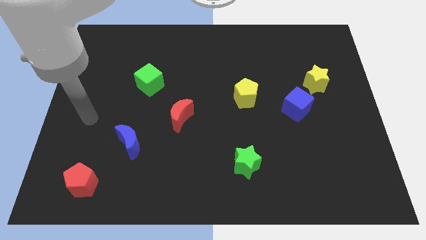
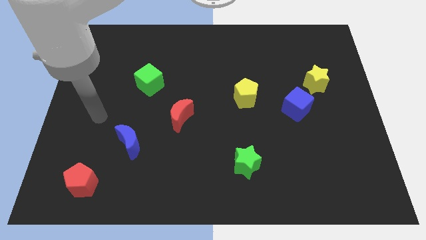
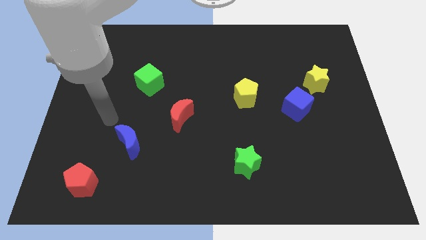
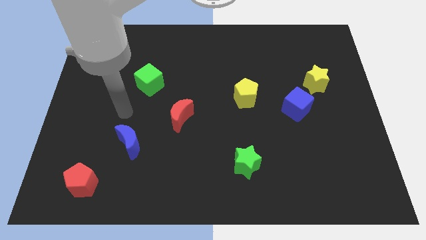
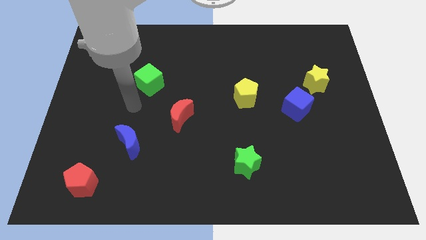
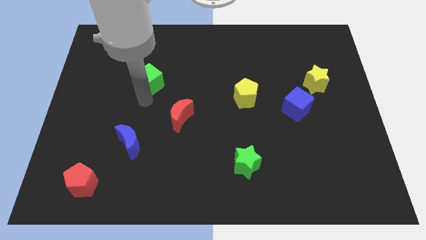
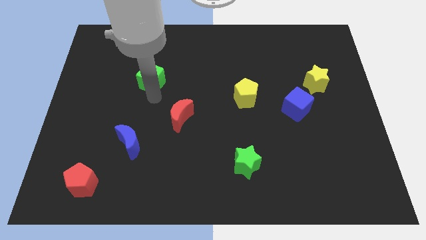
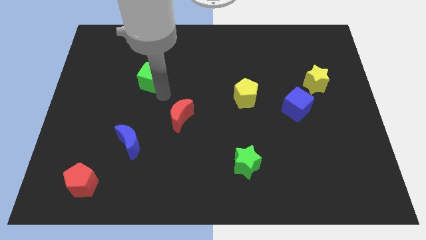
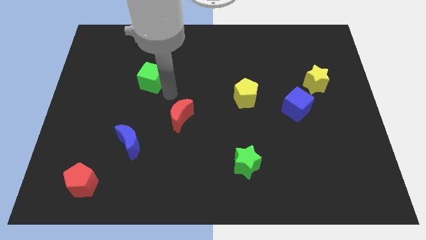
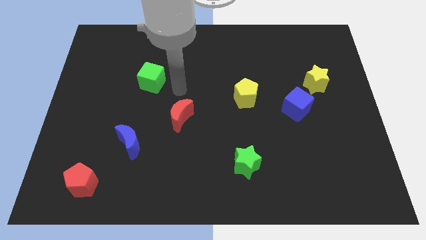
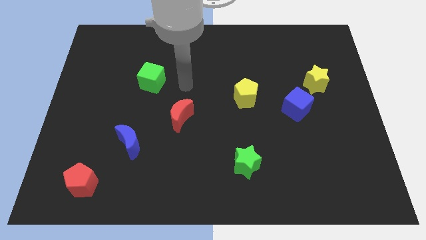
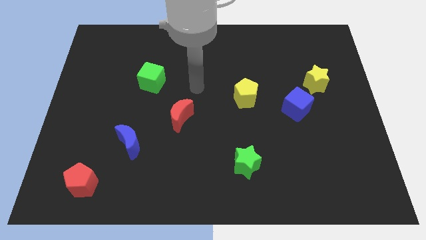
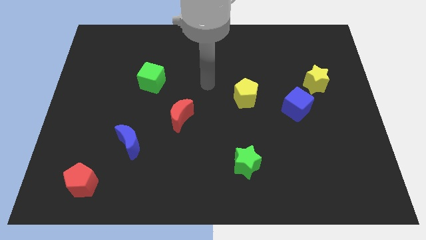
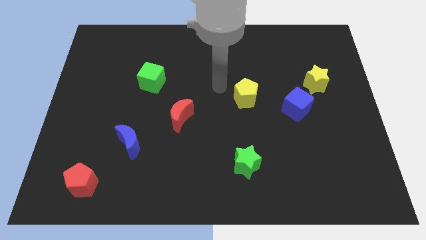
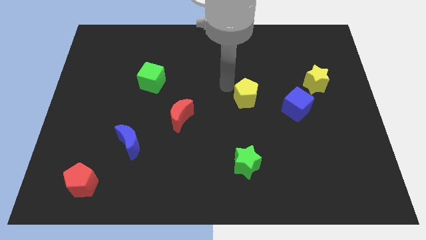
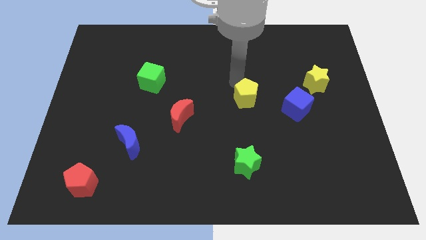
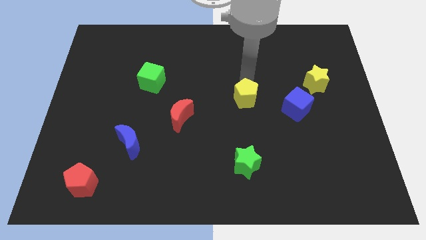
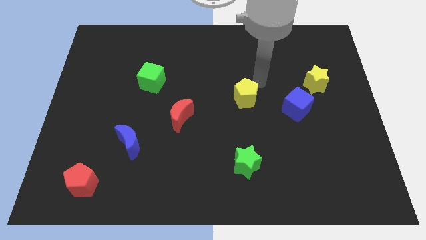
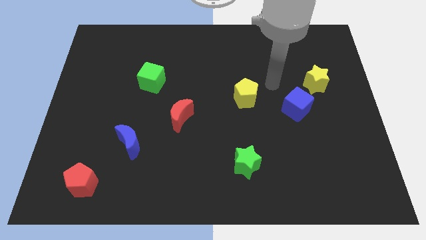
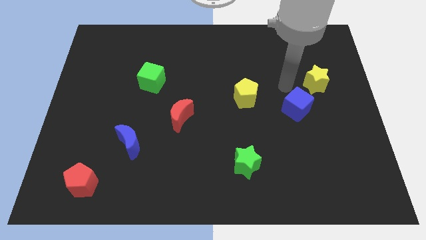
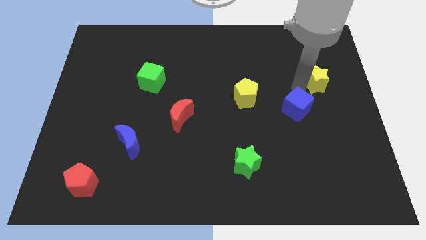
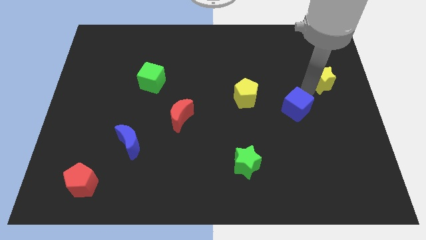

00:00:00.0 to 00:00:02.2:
separate the blue cube from the yellow star

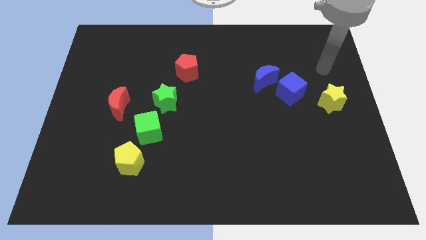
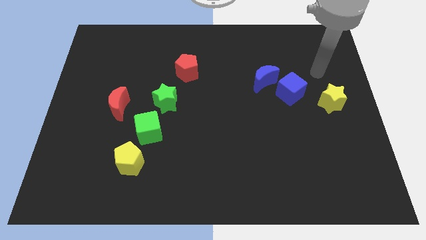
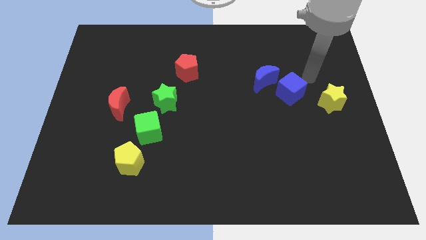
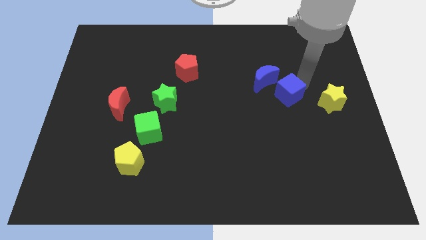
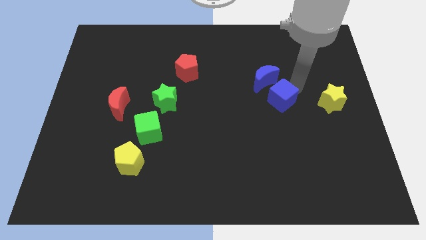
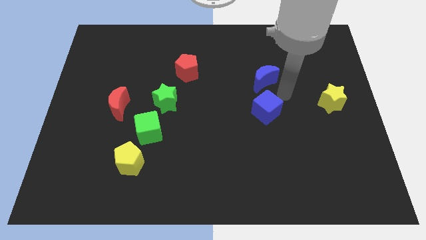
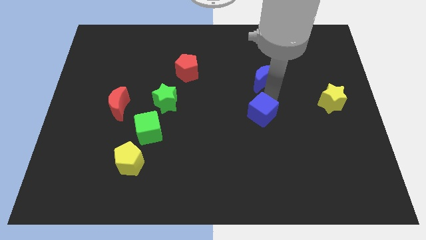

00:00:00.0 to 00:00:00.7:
move the blue moon away from the blue cube

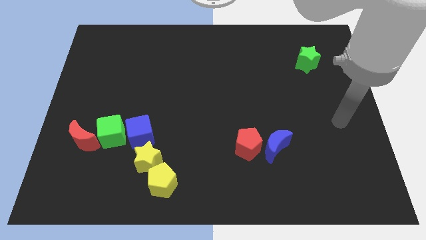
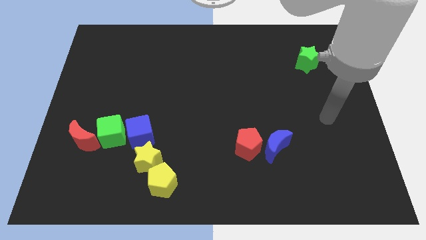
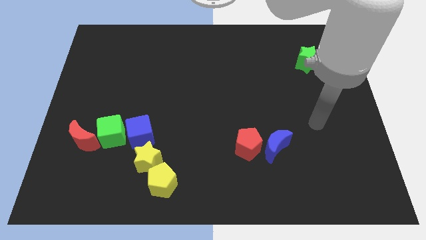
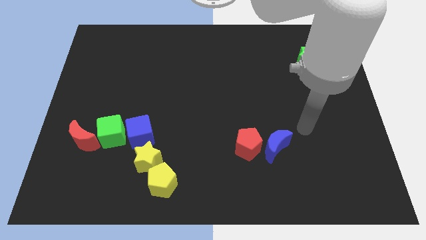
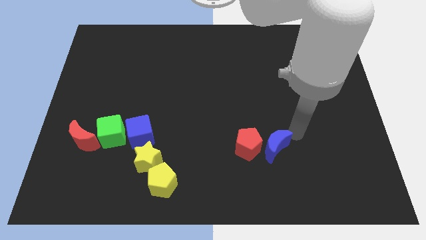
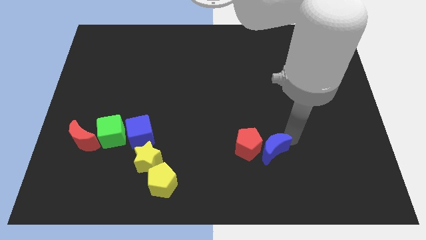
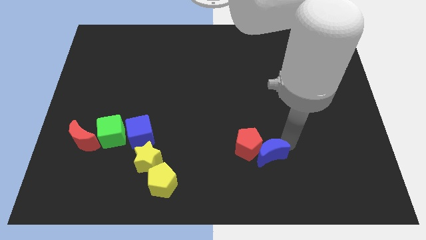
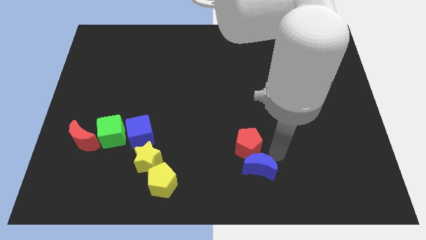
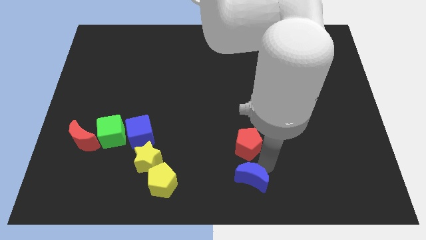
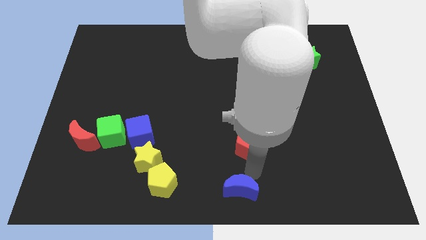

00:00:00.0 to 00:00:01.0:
move the red pentagon away from the blue moon

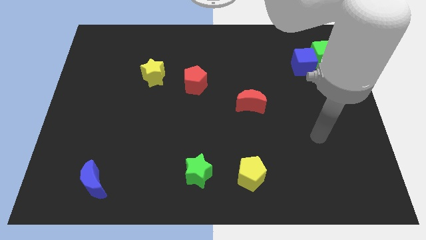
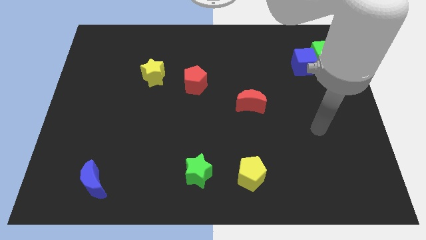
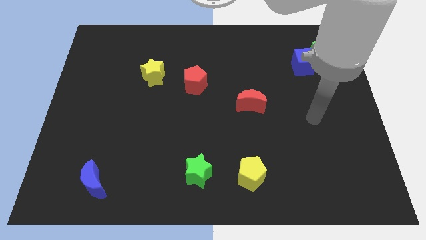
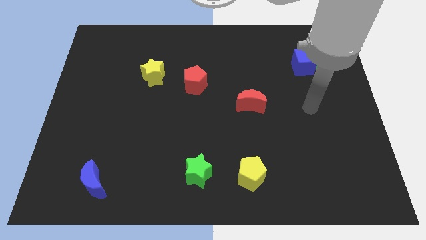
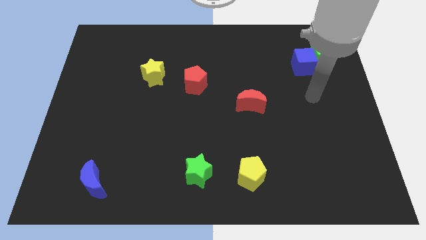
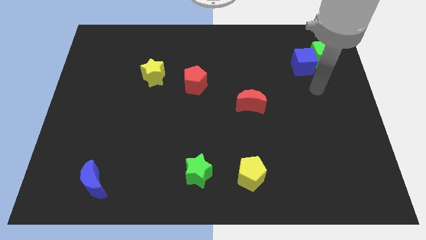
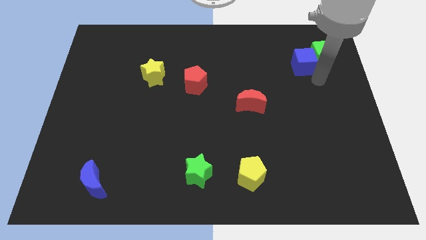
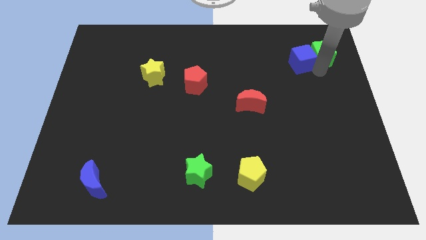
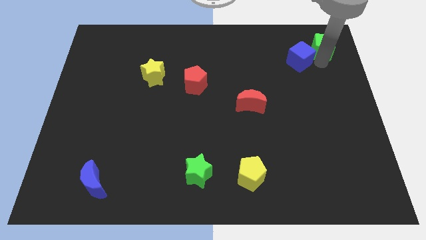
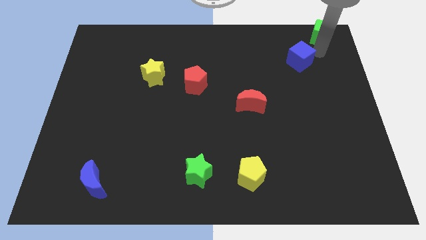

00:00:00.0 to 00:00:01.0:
pull the blue cube apart from the green cube

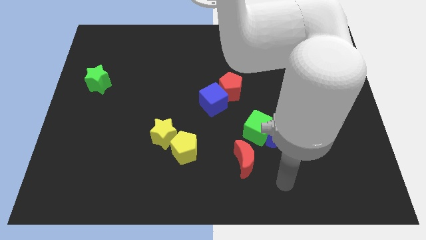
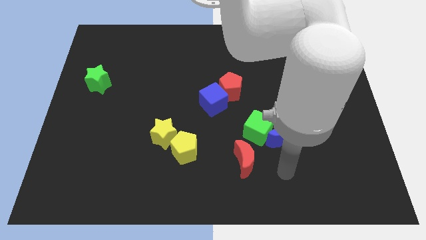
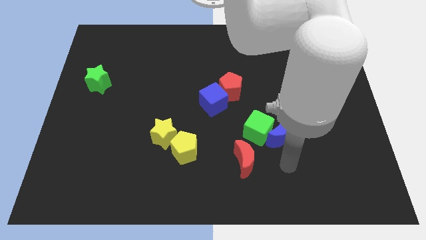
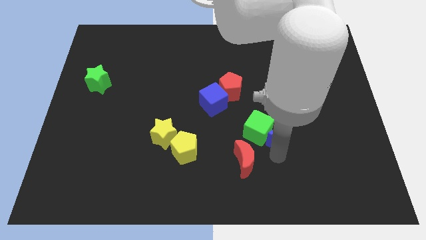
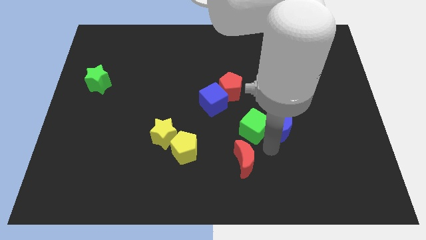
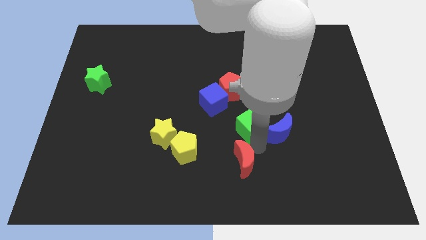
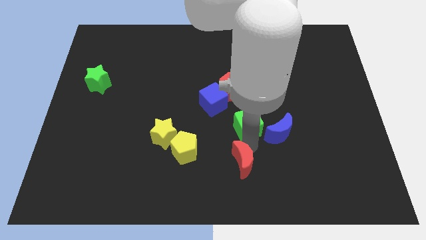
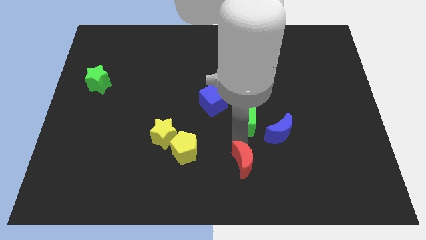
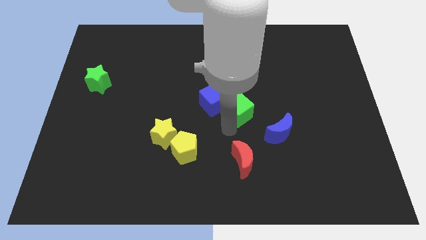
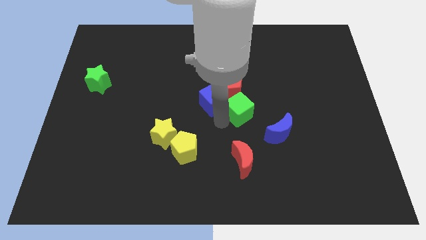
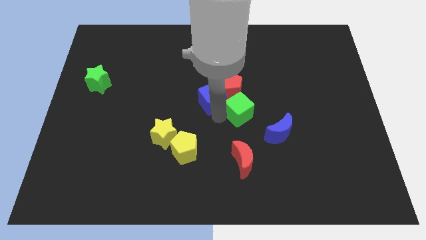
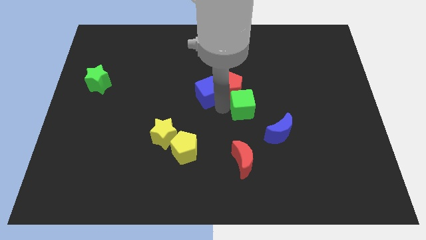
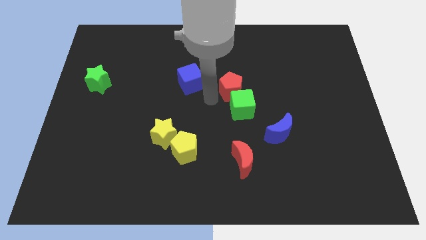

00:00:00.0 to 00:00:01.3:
separate the red pentagon from the blue cube

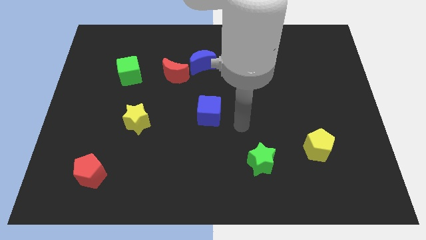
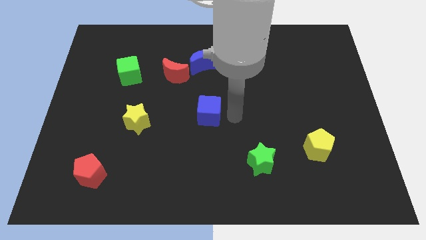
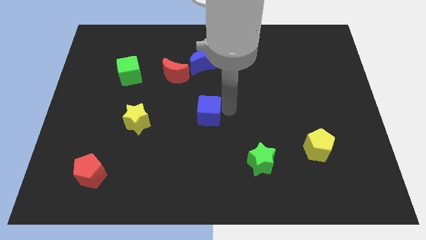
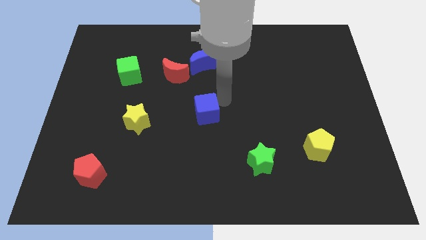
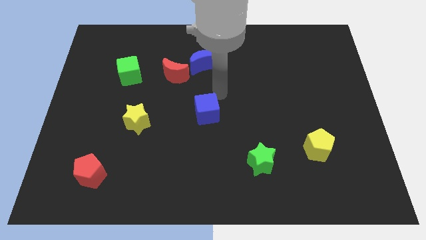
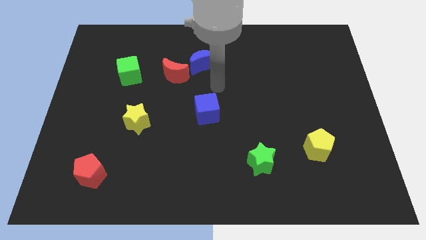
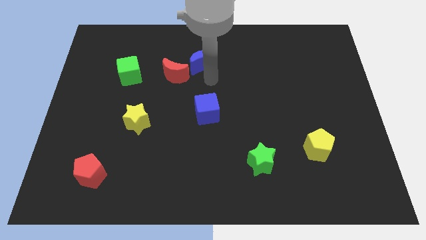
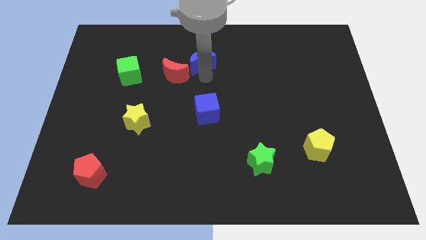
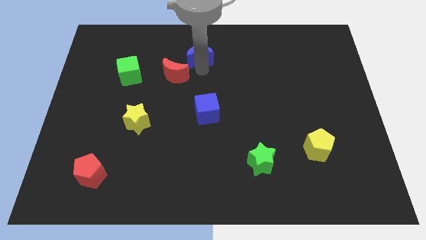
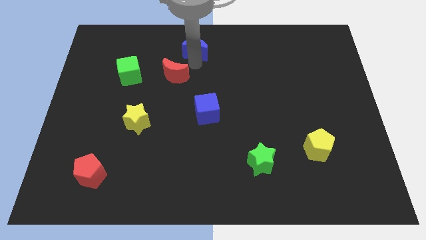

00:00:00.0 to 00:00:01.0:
pull the red moon apart from the blue moon

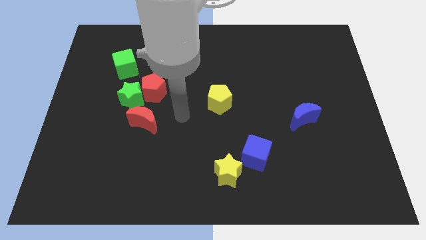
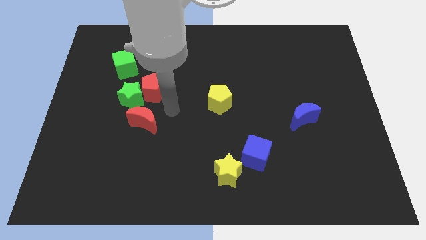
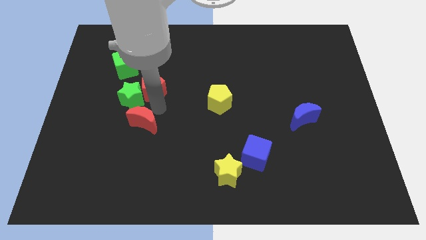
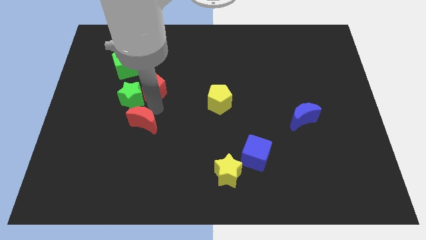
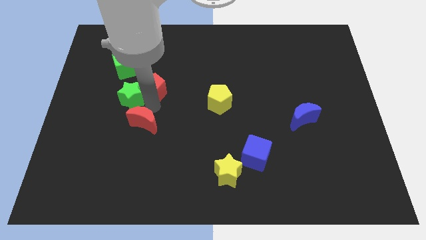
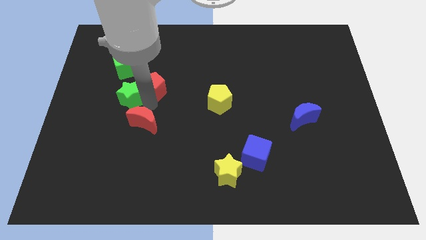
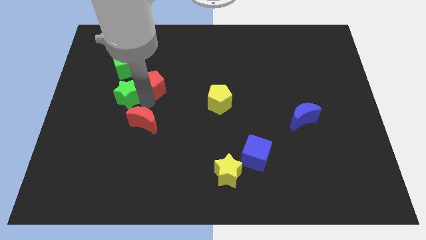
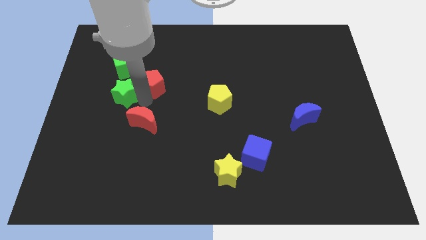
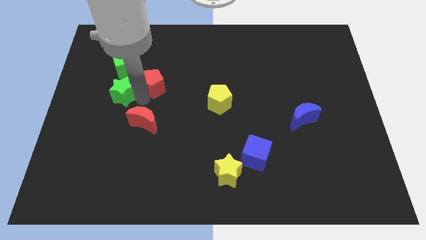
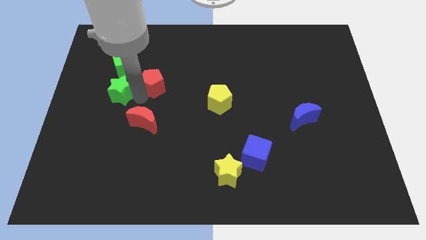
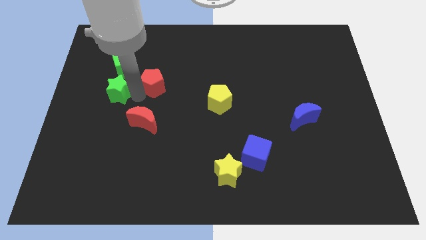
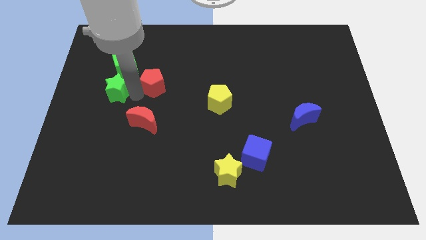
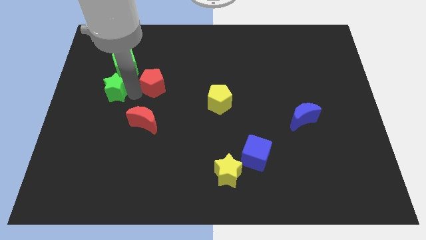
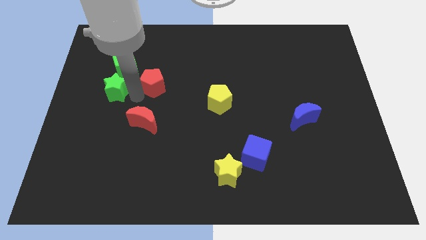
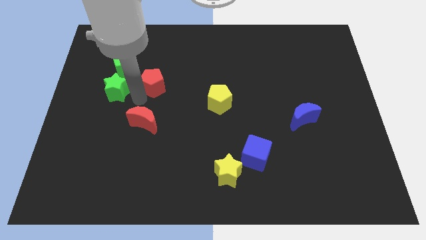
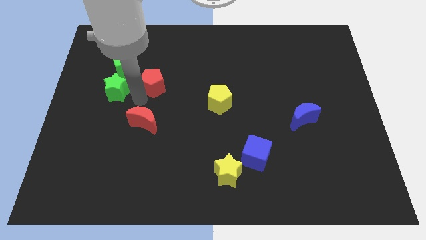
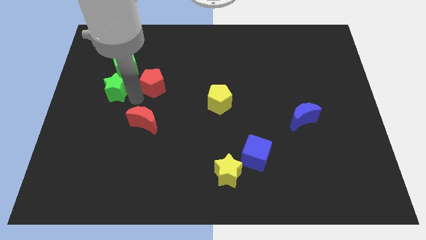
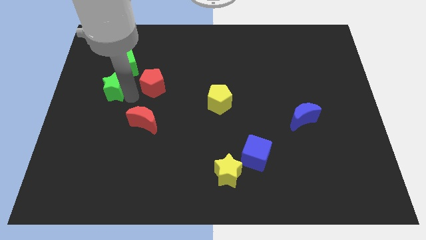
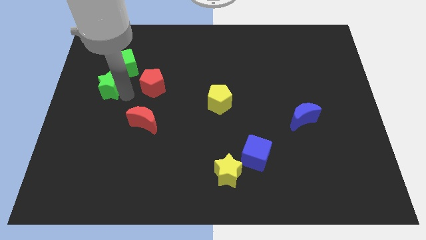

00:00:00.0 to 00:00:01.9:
move the green star away from the red pentagon and red moon
